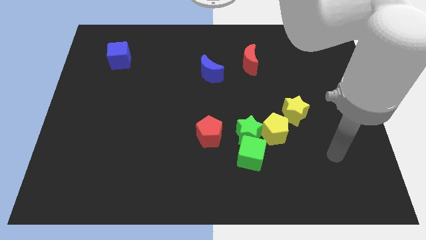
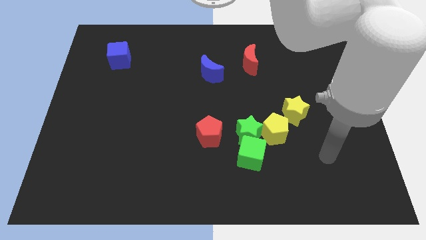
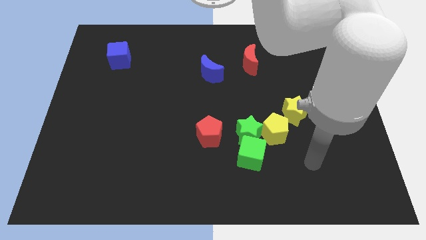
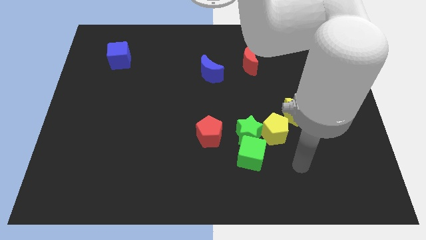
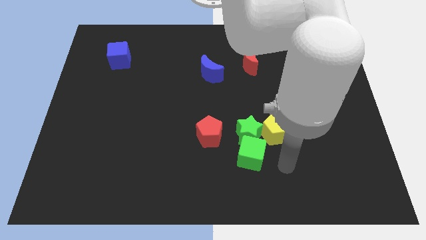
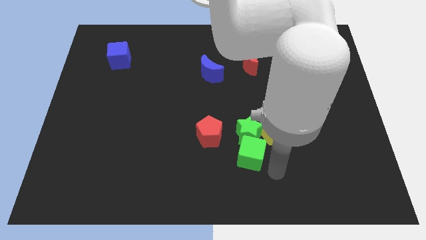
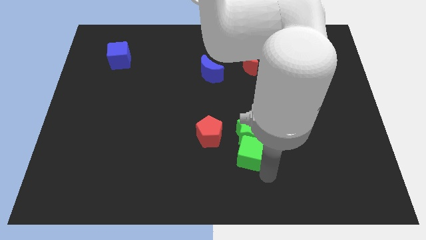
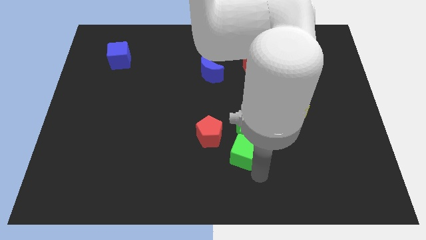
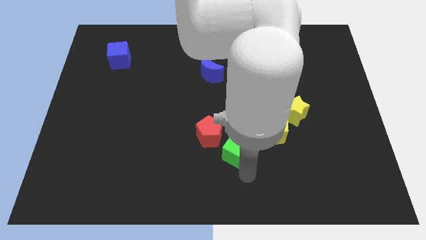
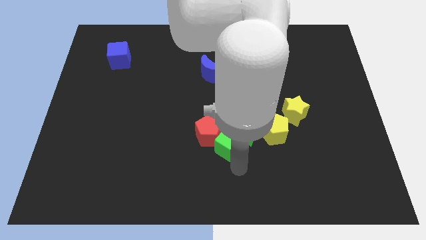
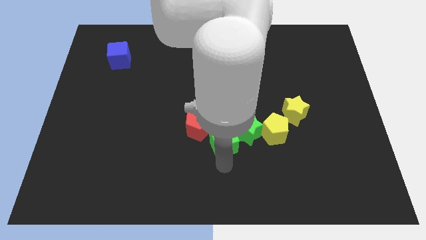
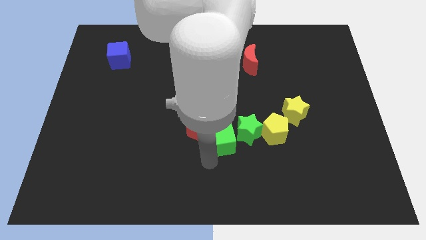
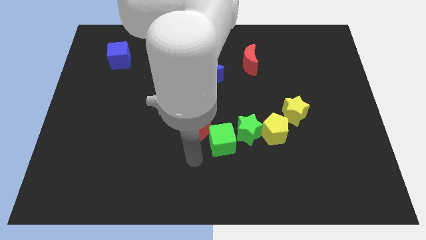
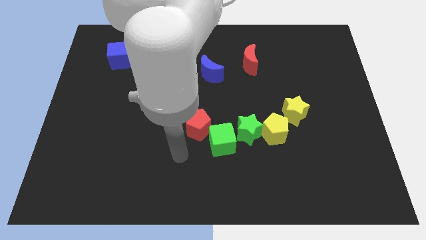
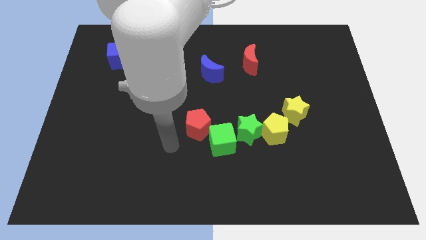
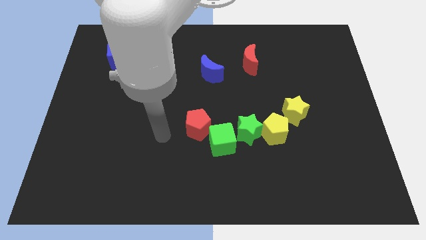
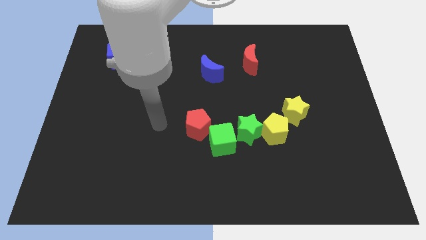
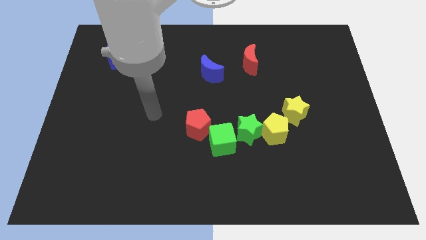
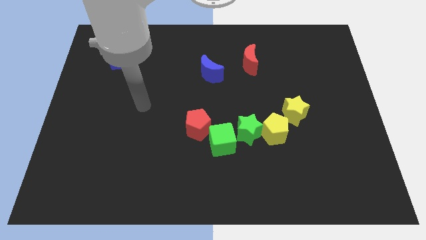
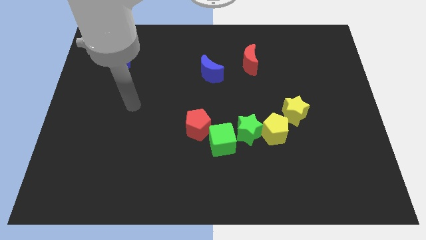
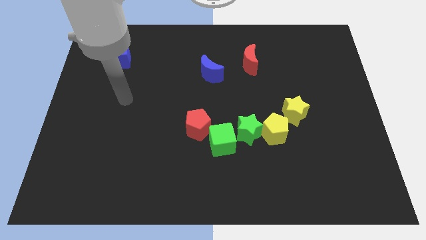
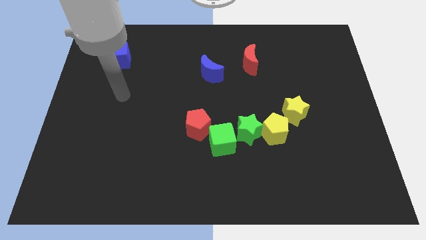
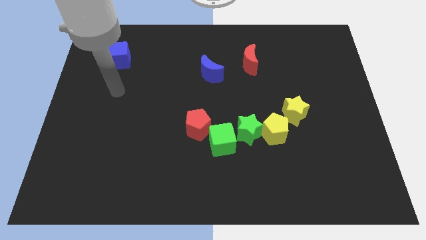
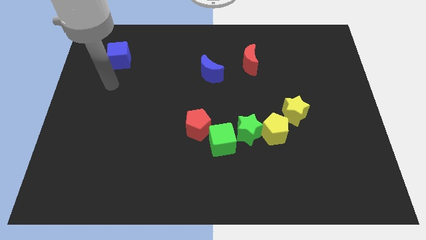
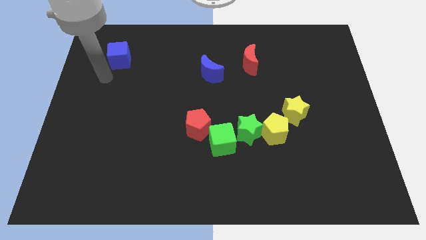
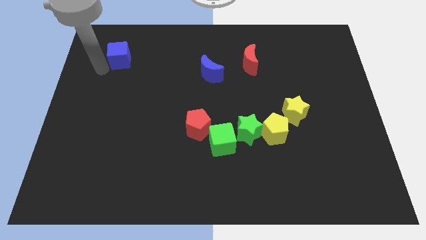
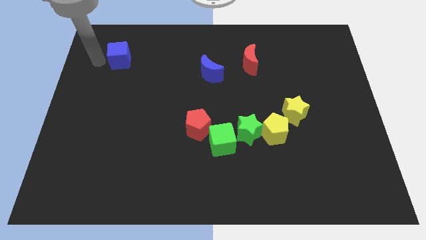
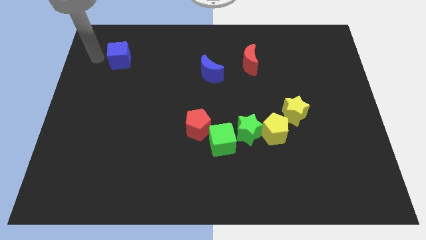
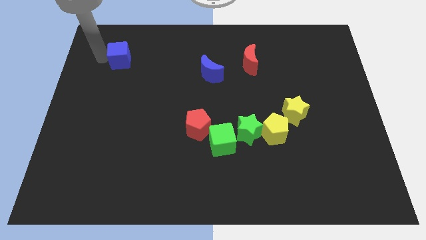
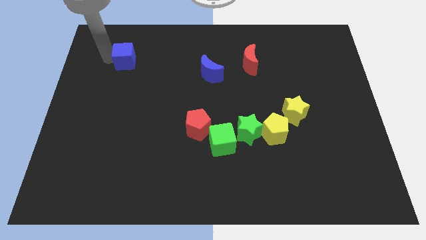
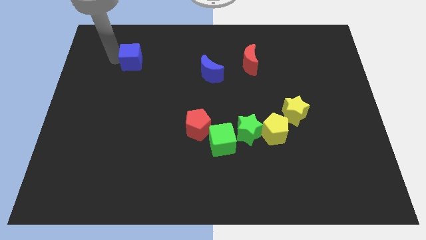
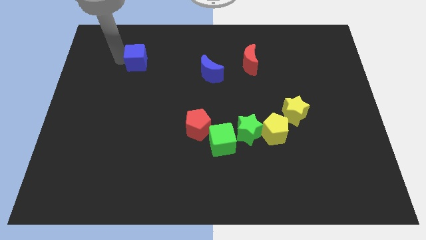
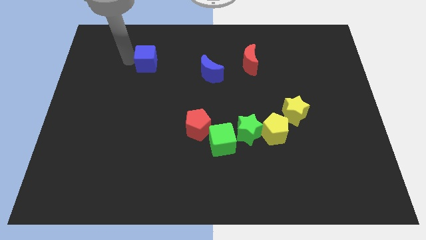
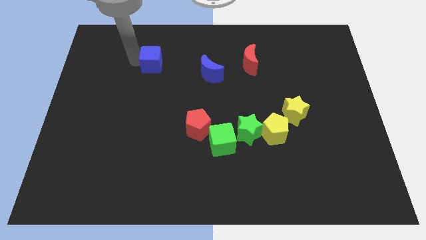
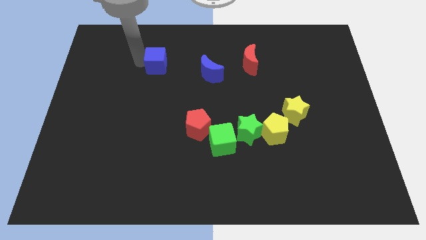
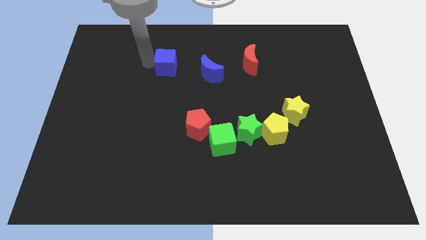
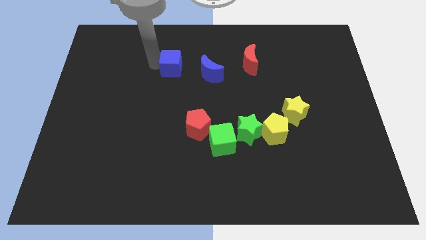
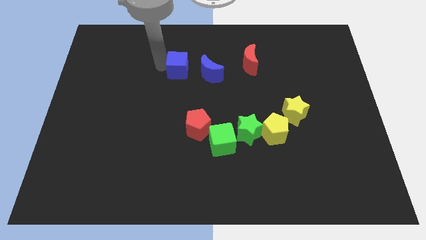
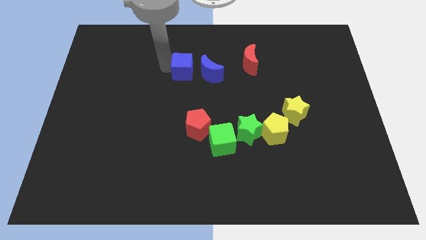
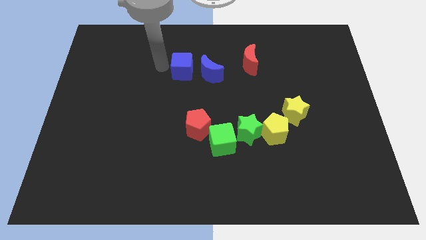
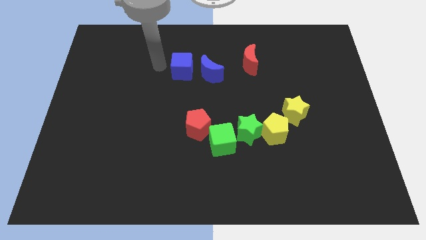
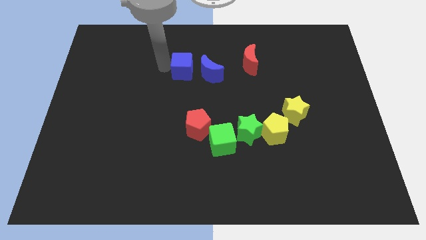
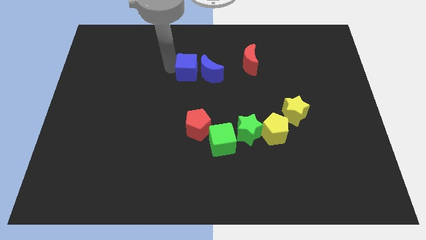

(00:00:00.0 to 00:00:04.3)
put the blue cube to the blue moon

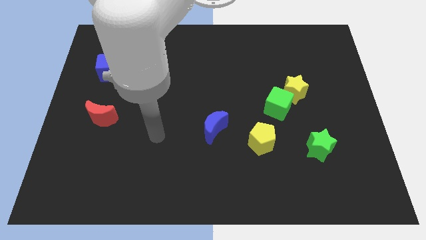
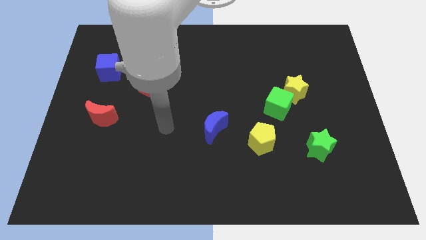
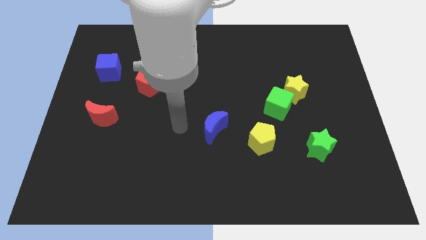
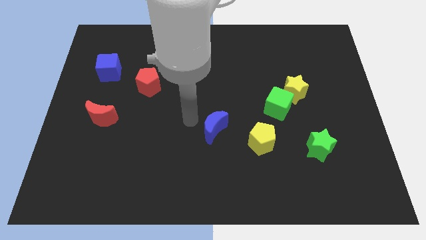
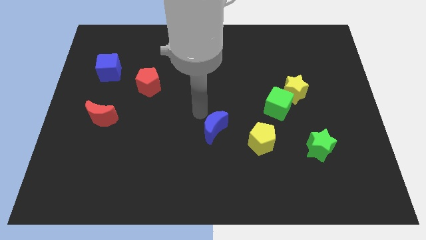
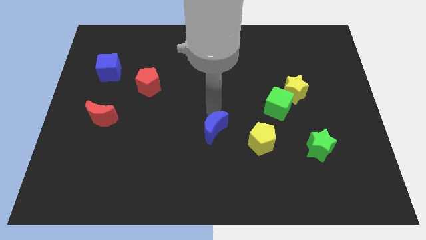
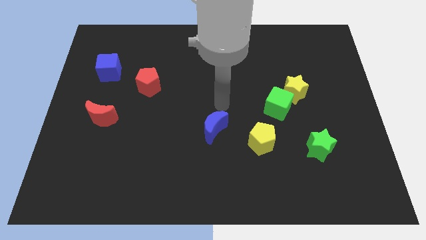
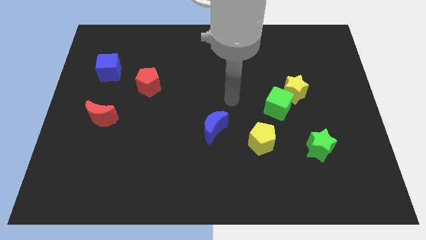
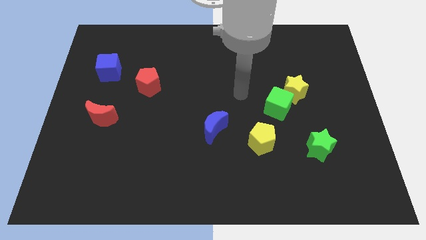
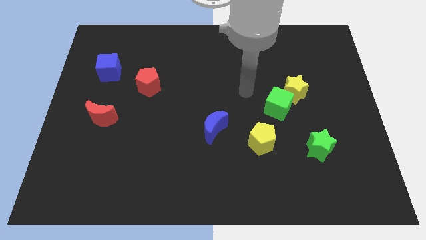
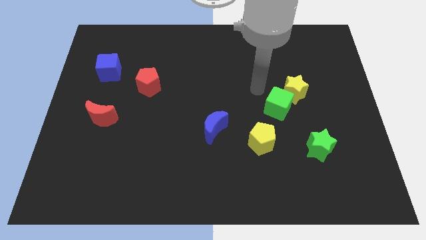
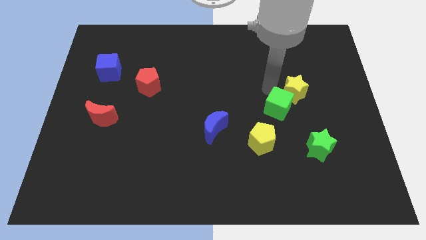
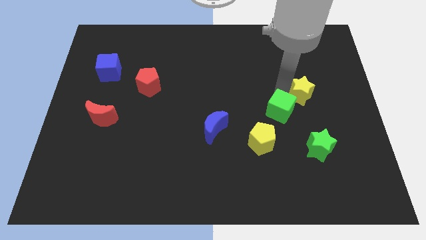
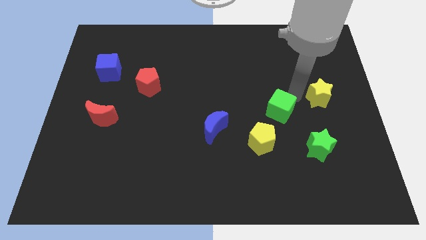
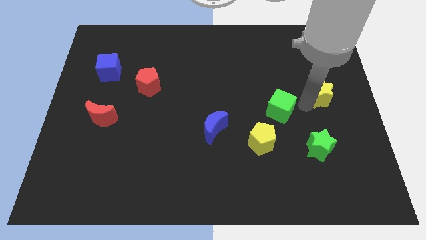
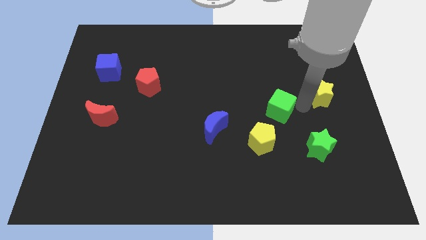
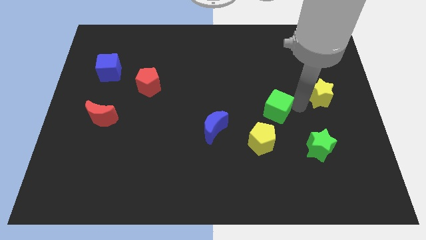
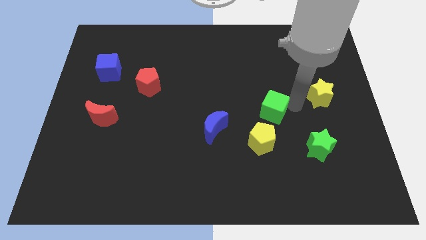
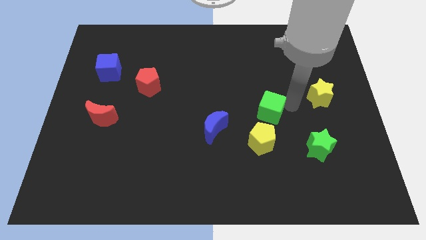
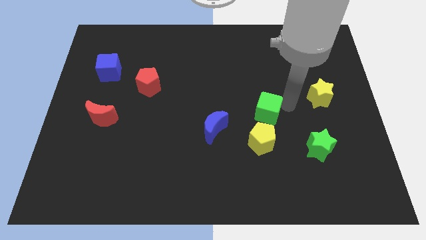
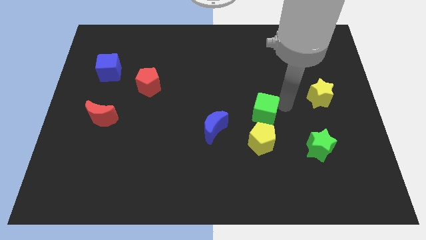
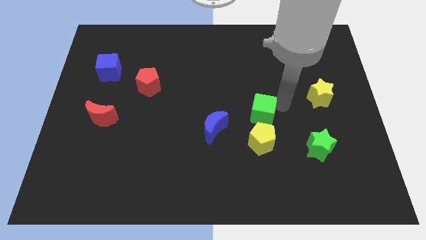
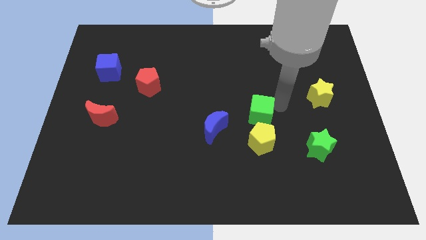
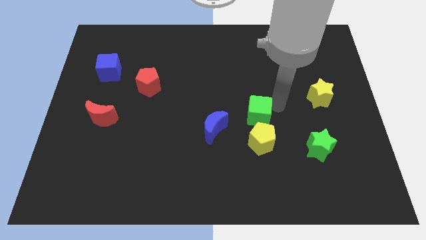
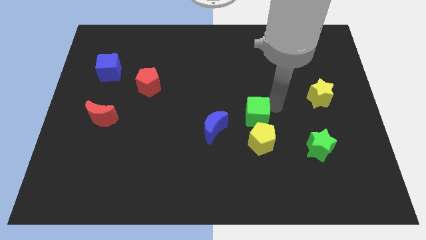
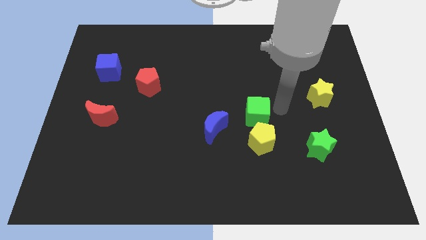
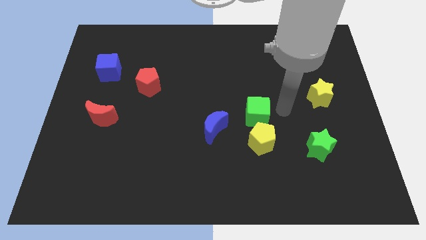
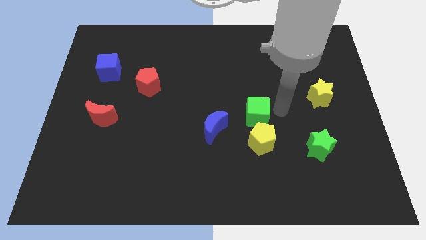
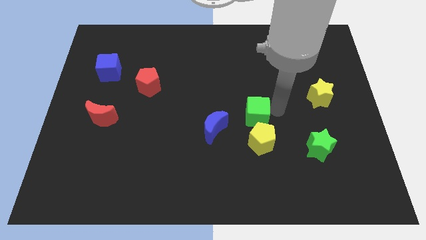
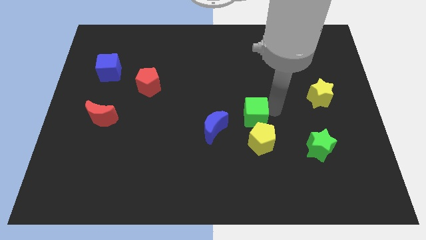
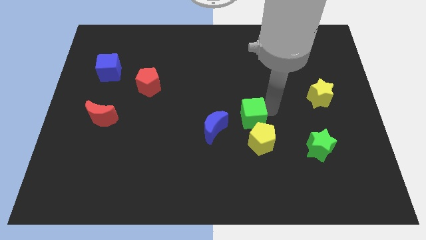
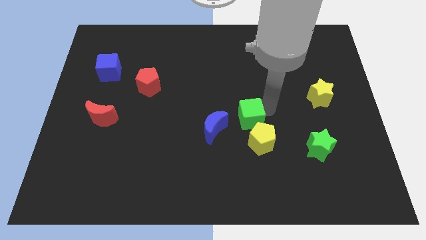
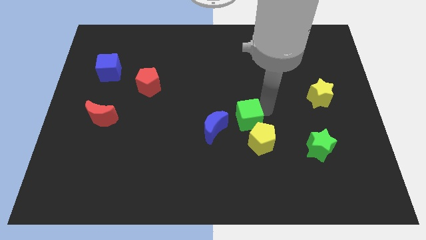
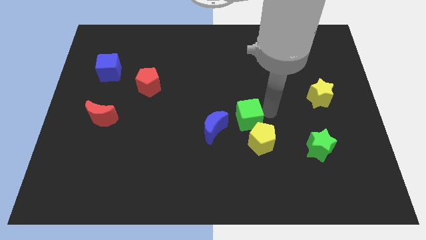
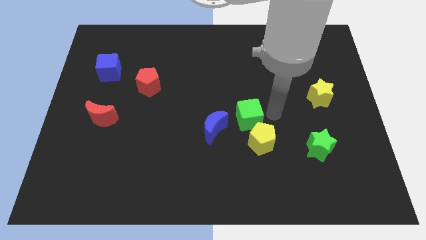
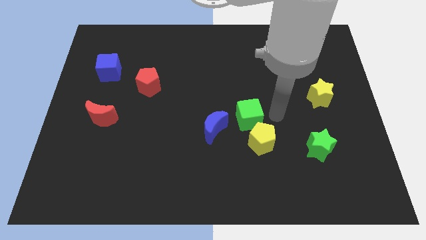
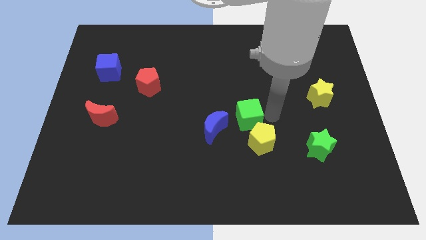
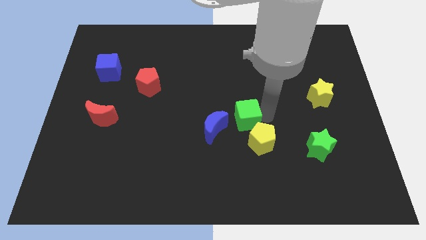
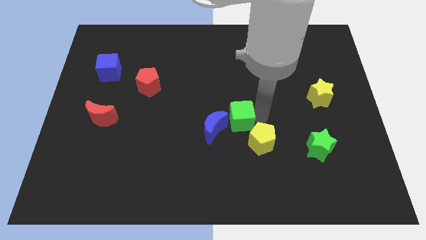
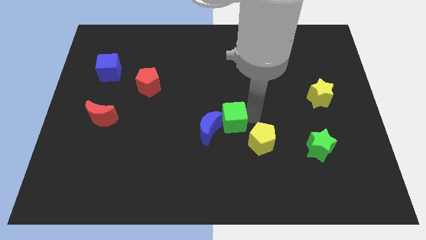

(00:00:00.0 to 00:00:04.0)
move the green cube towards the blue moon
